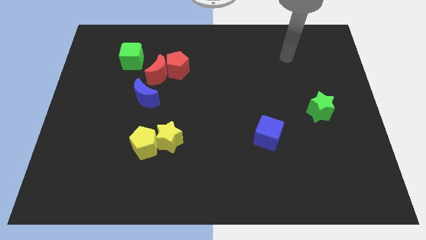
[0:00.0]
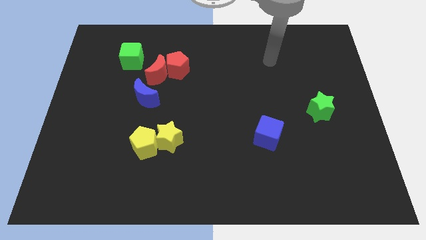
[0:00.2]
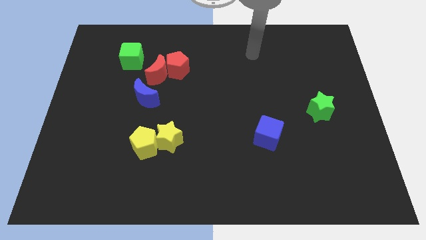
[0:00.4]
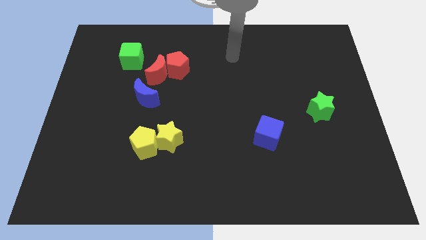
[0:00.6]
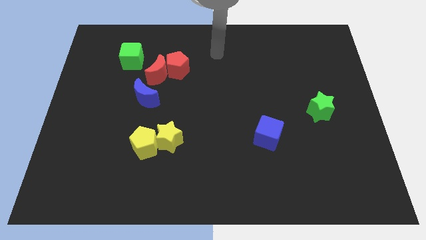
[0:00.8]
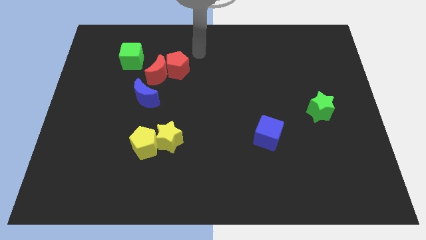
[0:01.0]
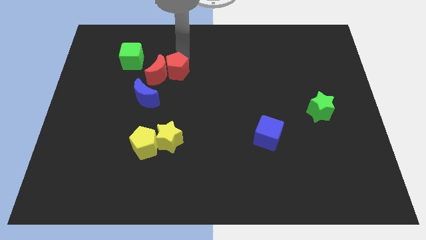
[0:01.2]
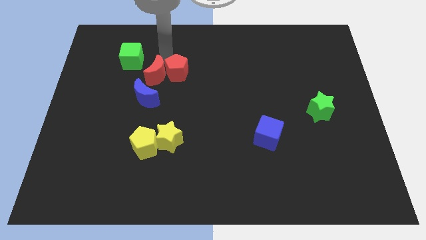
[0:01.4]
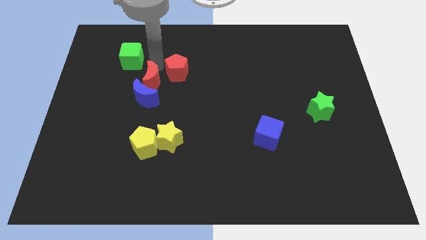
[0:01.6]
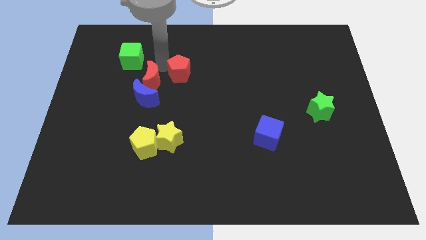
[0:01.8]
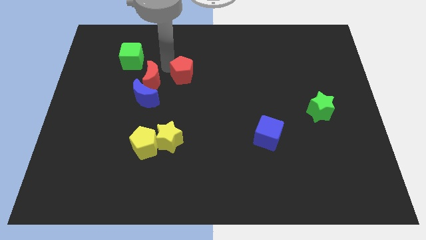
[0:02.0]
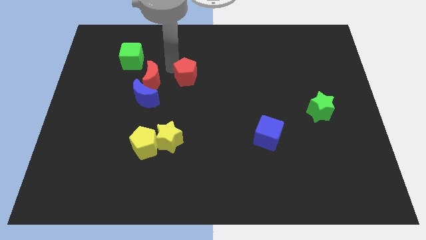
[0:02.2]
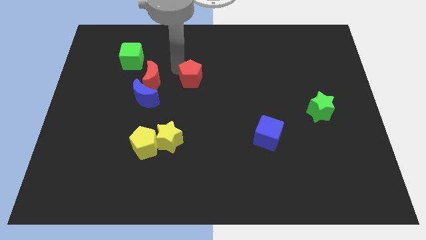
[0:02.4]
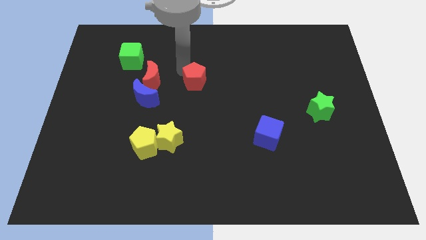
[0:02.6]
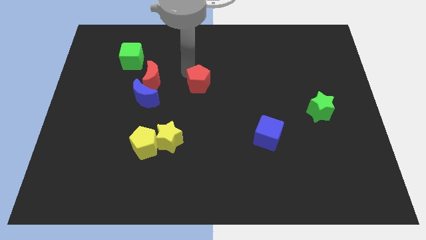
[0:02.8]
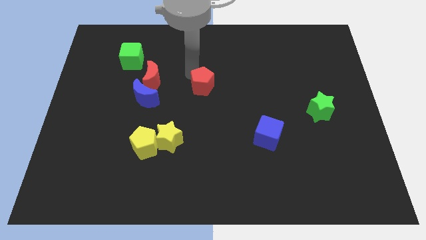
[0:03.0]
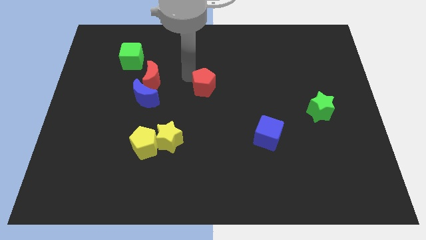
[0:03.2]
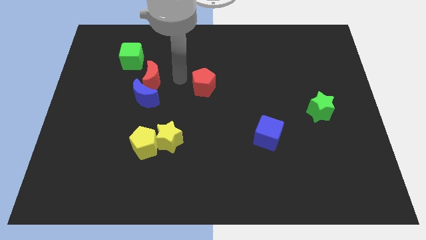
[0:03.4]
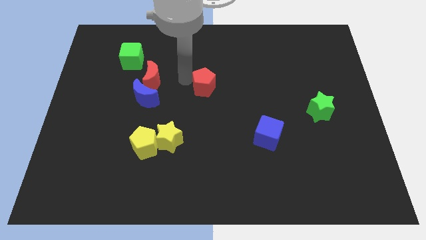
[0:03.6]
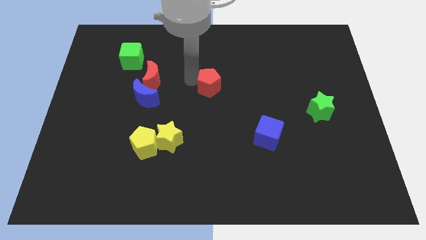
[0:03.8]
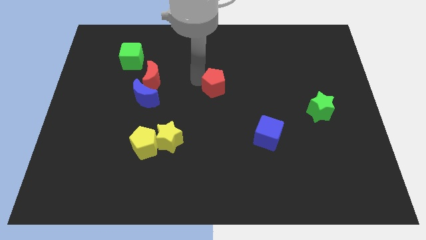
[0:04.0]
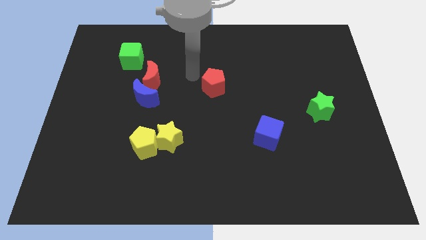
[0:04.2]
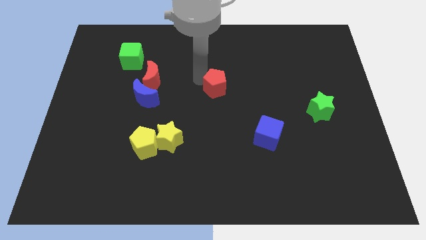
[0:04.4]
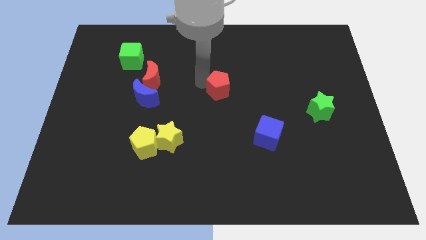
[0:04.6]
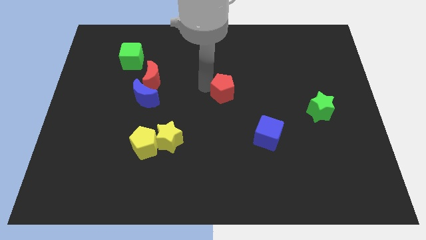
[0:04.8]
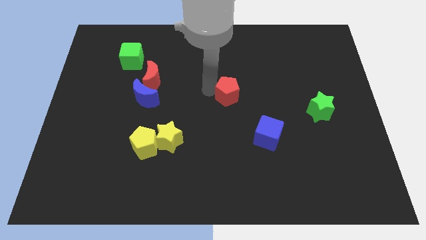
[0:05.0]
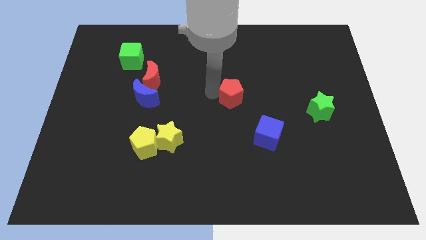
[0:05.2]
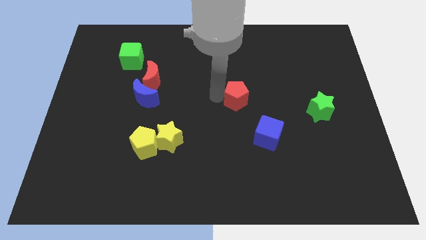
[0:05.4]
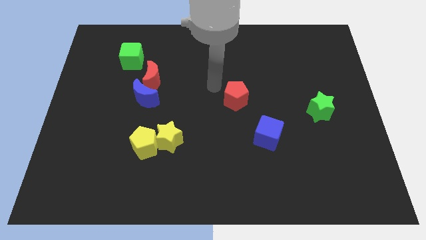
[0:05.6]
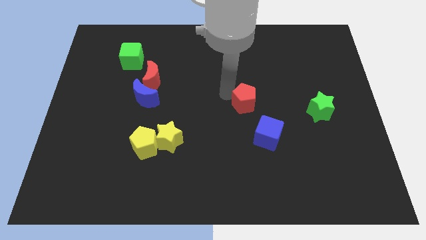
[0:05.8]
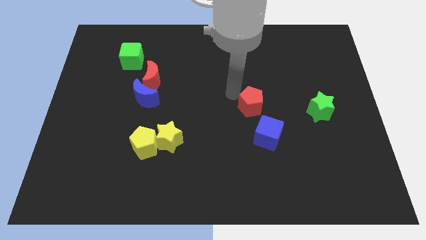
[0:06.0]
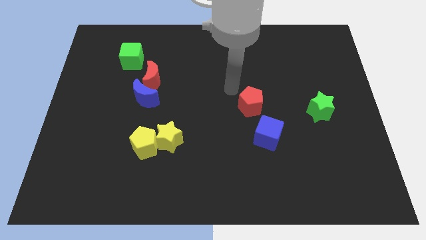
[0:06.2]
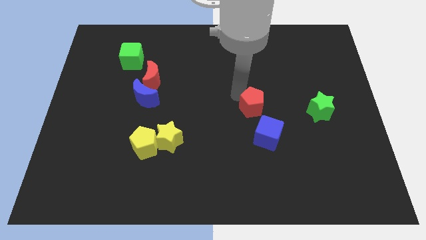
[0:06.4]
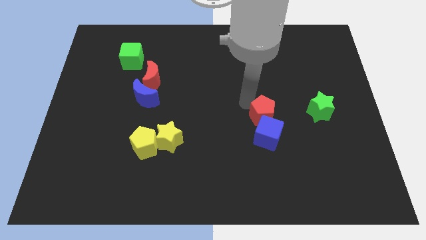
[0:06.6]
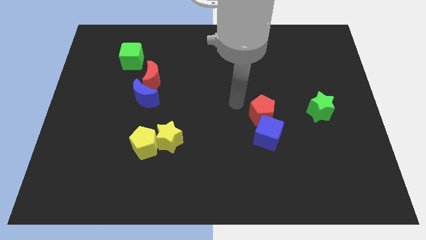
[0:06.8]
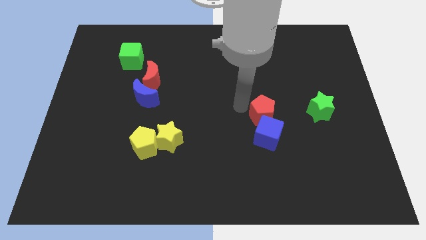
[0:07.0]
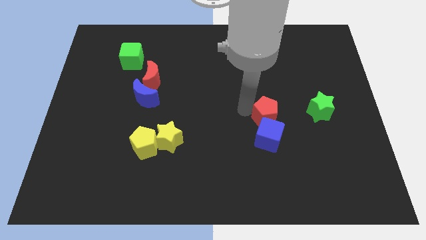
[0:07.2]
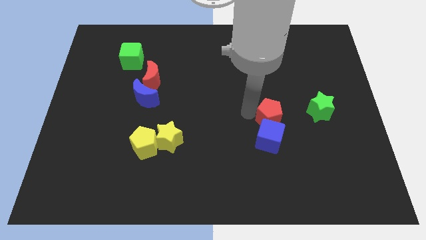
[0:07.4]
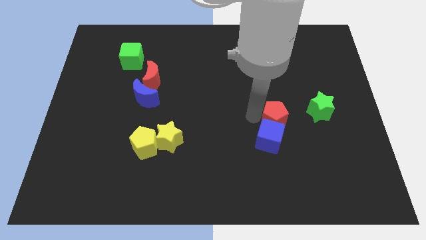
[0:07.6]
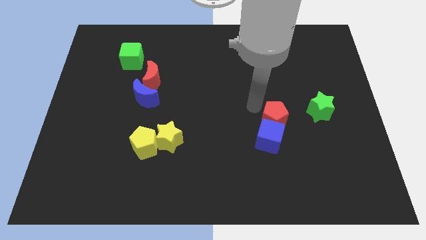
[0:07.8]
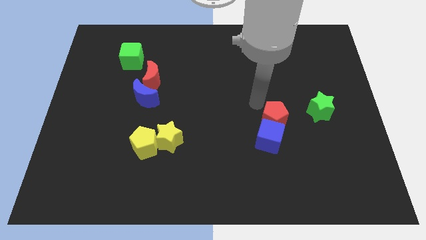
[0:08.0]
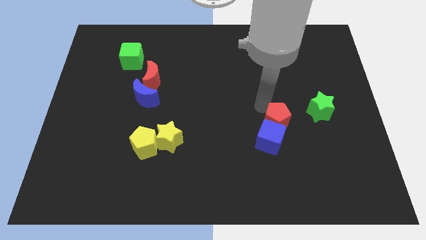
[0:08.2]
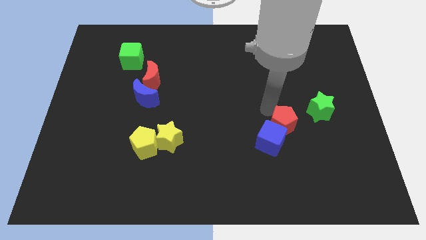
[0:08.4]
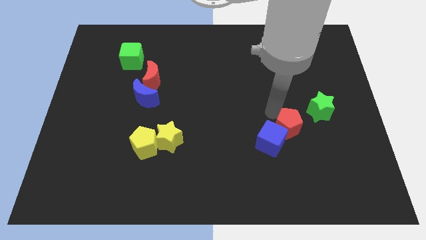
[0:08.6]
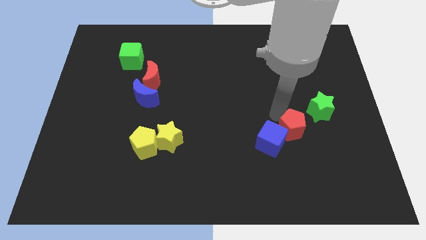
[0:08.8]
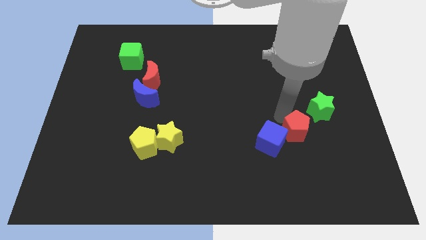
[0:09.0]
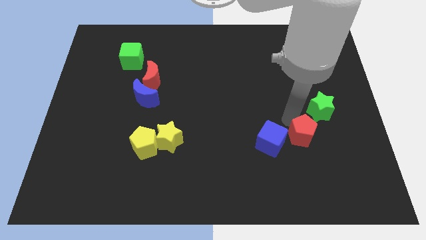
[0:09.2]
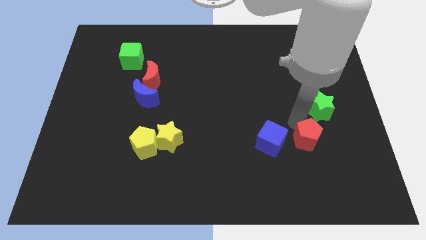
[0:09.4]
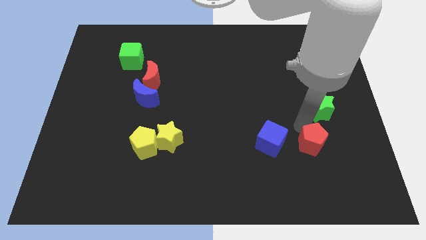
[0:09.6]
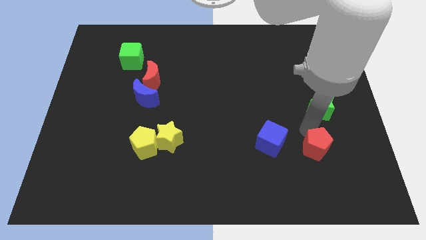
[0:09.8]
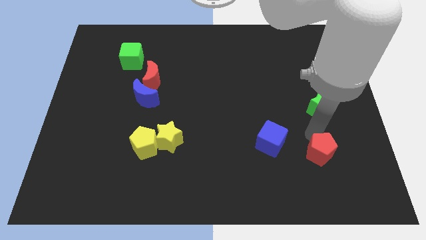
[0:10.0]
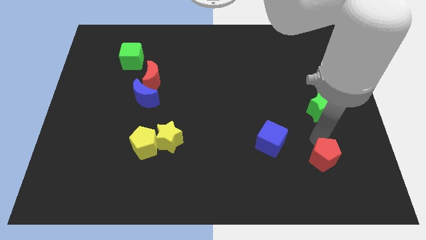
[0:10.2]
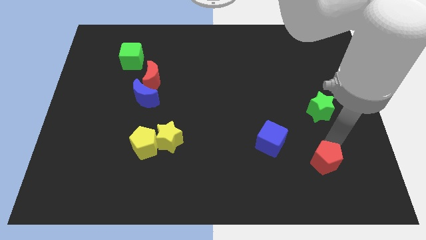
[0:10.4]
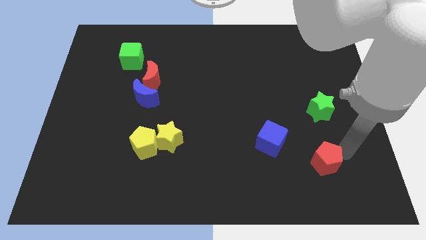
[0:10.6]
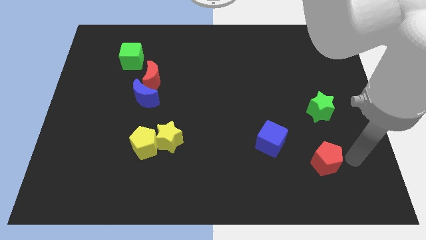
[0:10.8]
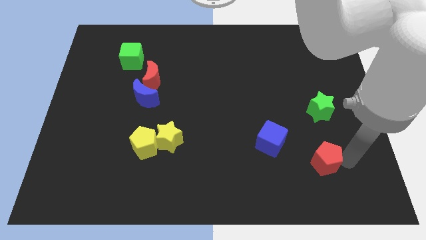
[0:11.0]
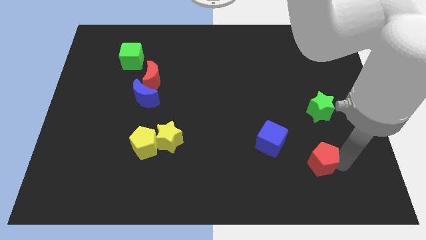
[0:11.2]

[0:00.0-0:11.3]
move the red pentagon diagonally down and to the right of the blue cube

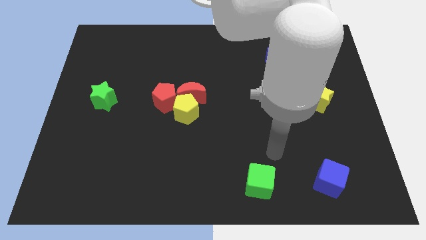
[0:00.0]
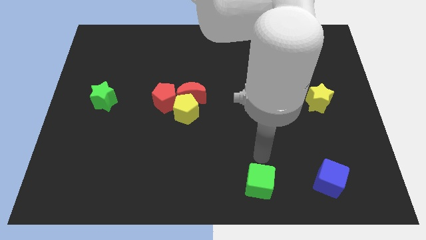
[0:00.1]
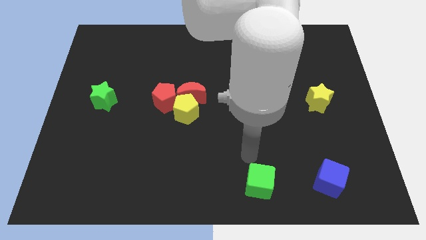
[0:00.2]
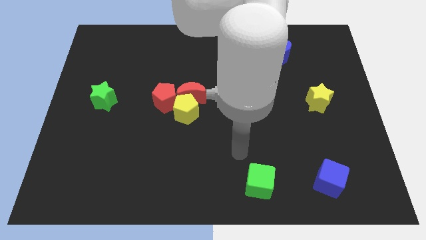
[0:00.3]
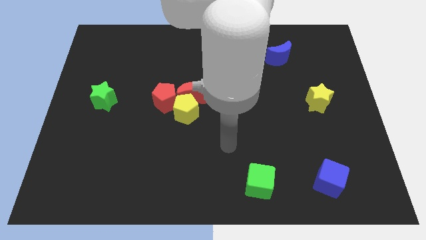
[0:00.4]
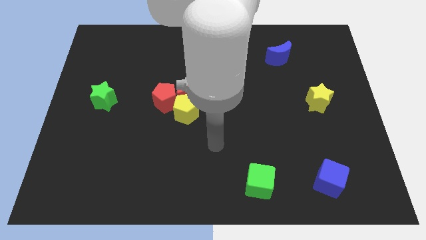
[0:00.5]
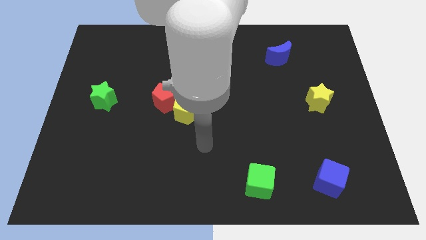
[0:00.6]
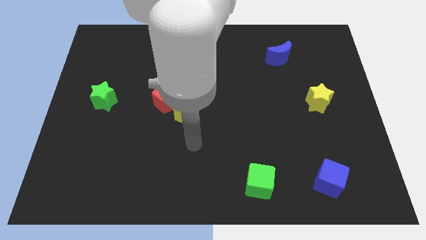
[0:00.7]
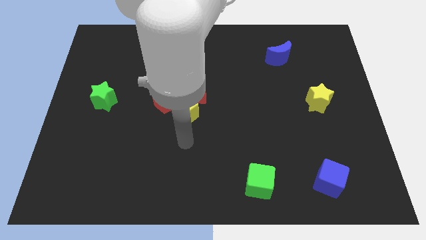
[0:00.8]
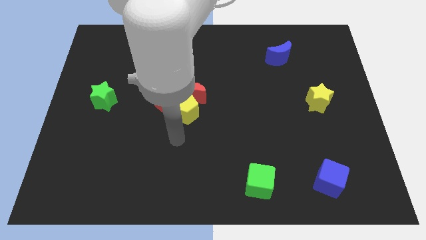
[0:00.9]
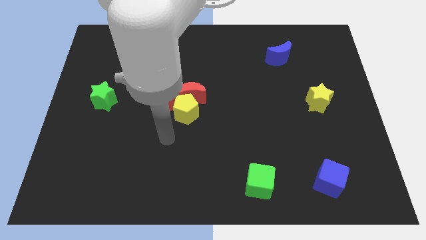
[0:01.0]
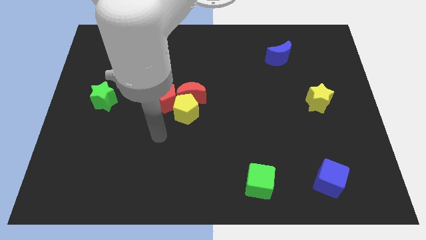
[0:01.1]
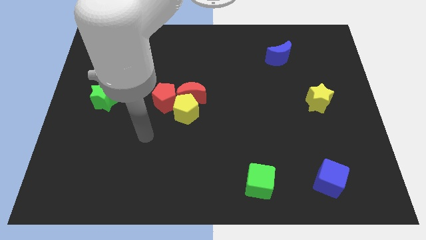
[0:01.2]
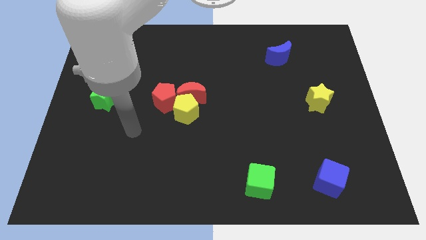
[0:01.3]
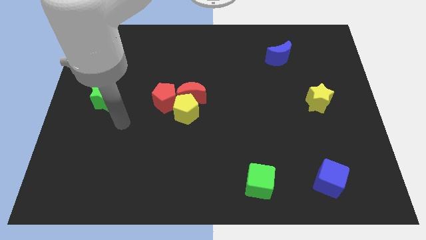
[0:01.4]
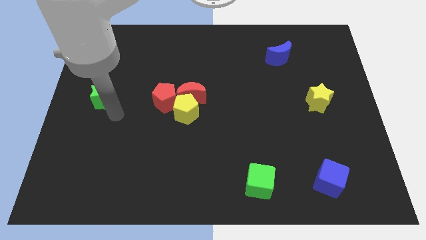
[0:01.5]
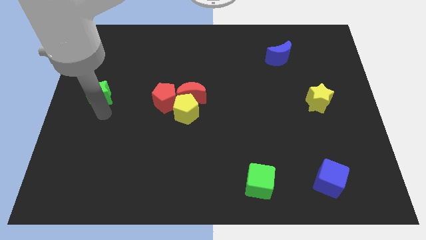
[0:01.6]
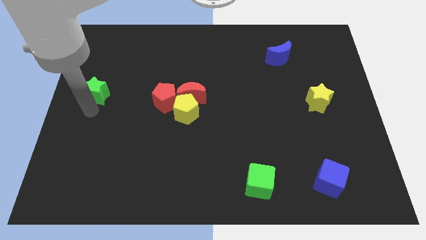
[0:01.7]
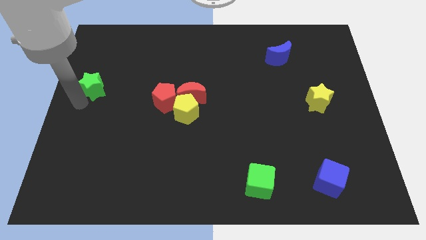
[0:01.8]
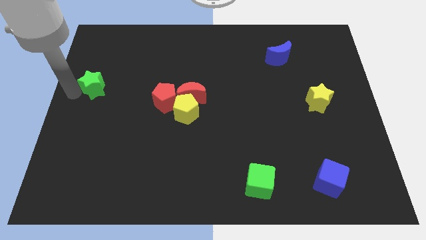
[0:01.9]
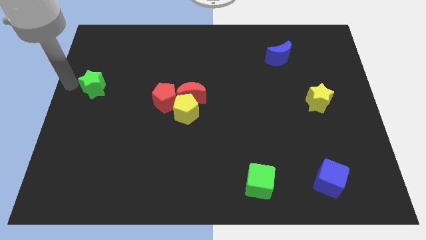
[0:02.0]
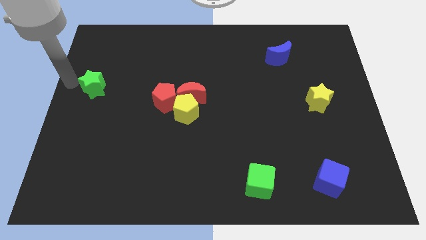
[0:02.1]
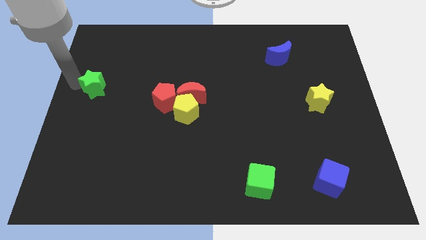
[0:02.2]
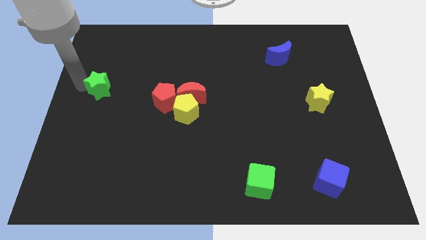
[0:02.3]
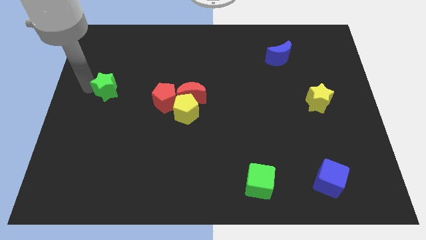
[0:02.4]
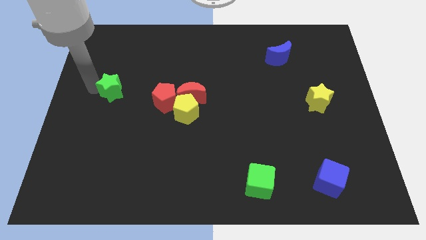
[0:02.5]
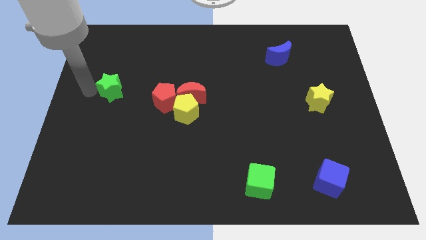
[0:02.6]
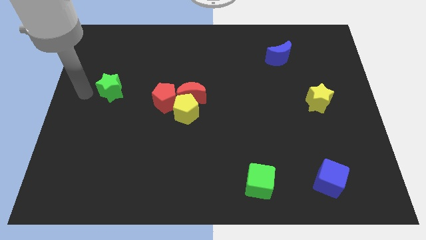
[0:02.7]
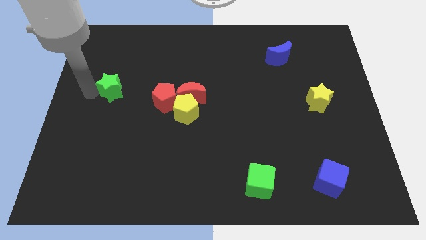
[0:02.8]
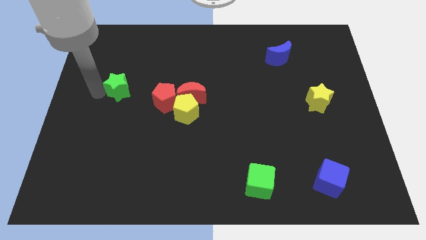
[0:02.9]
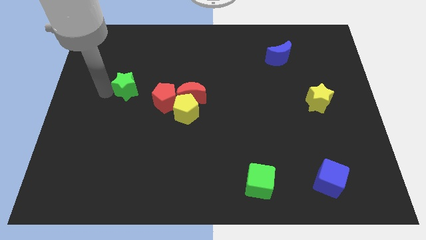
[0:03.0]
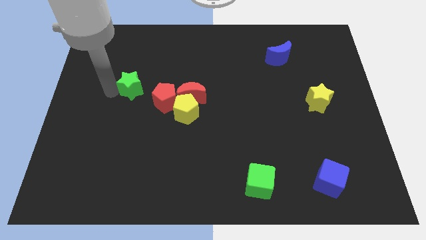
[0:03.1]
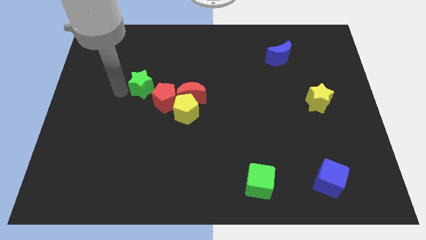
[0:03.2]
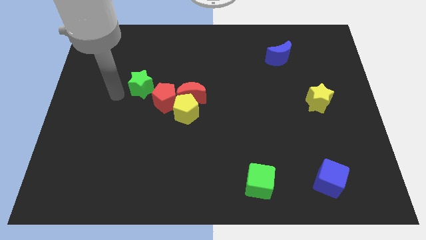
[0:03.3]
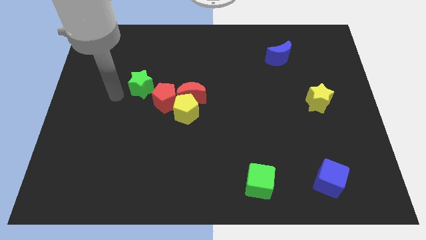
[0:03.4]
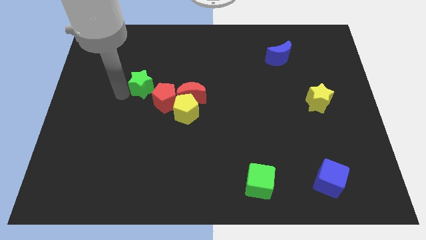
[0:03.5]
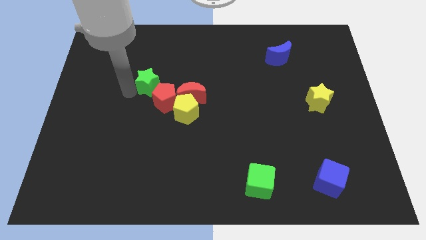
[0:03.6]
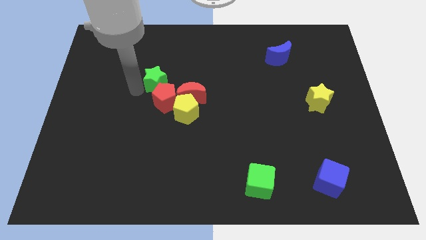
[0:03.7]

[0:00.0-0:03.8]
put the green star diagonally up and to the left of the red moon
